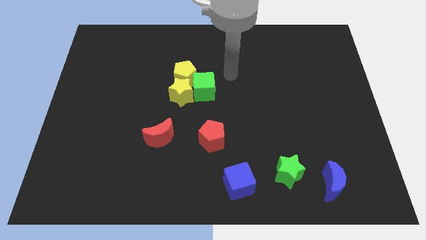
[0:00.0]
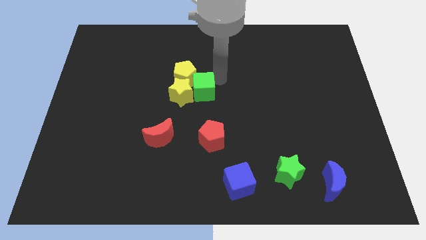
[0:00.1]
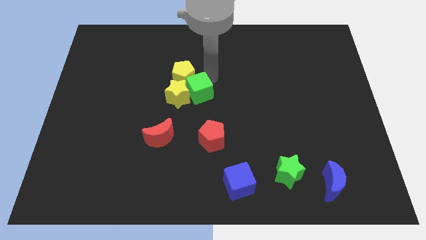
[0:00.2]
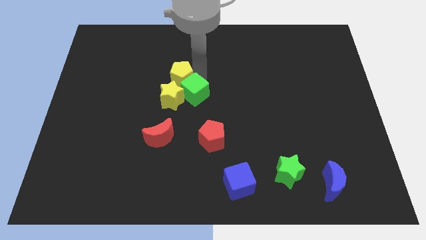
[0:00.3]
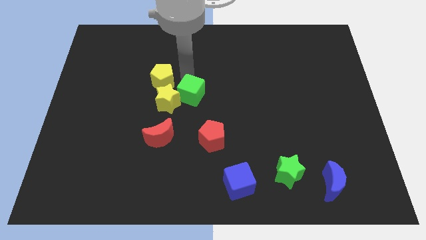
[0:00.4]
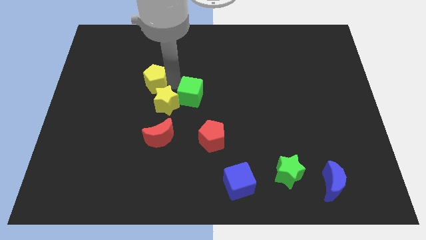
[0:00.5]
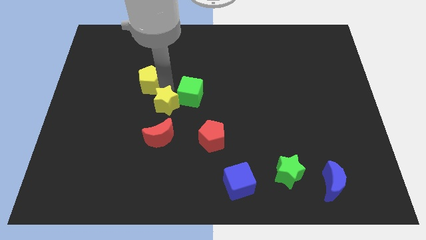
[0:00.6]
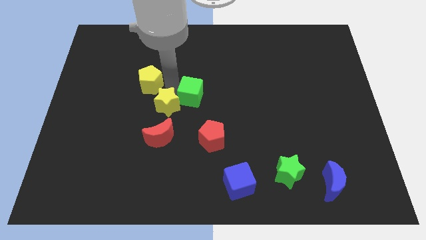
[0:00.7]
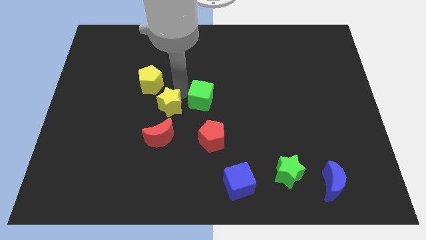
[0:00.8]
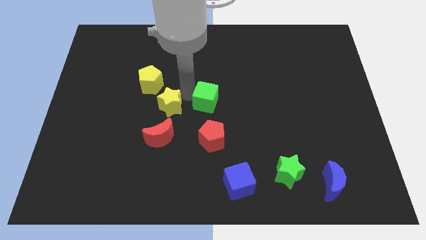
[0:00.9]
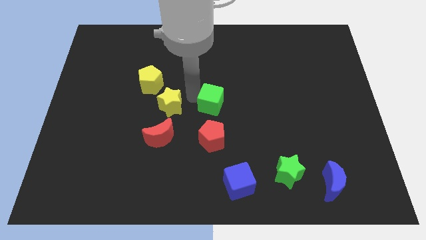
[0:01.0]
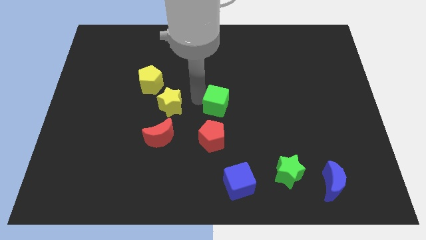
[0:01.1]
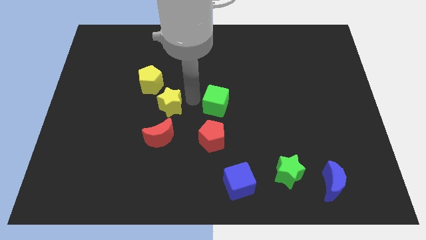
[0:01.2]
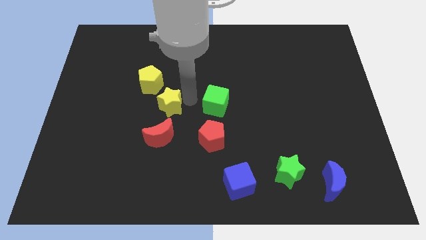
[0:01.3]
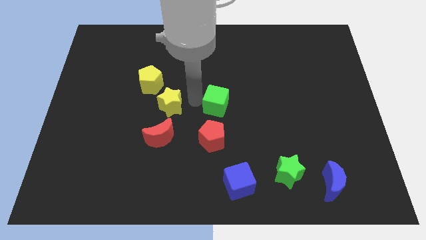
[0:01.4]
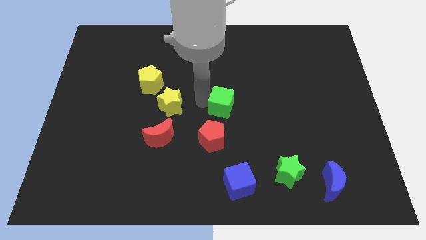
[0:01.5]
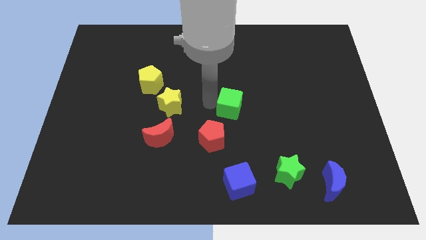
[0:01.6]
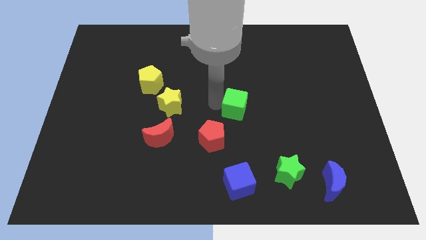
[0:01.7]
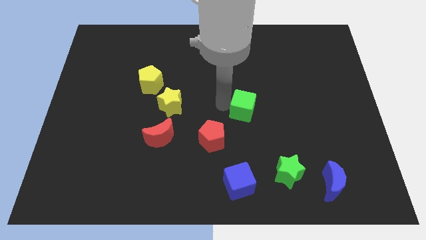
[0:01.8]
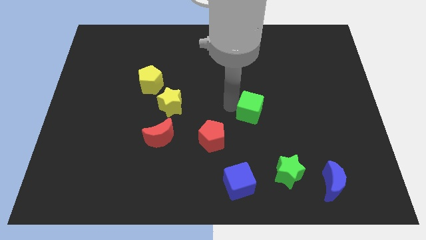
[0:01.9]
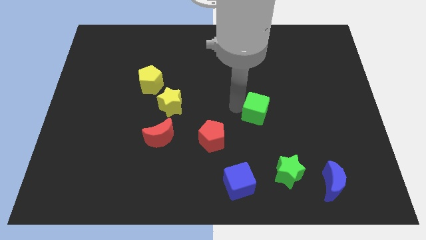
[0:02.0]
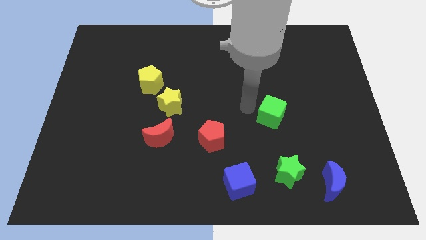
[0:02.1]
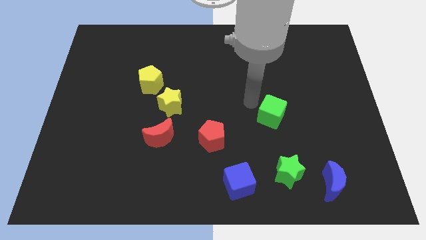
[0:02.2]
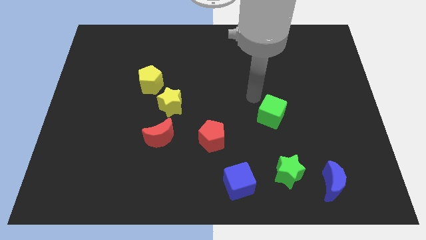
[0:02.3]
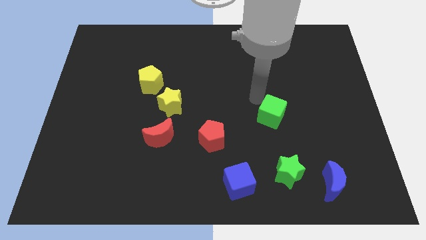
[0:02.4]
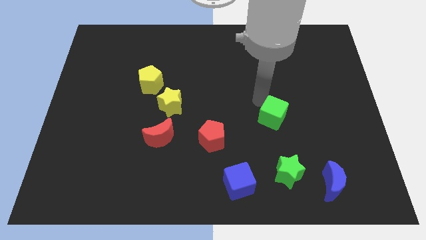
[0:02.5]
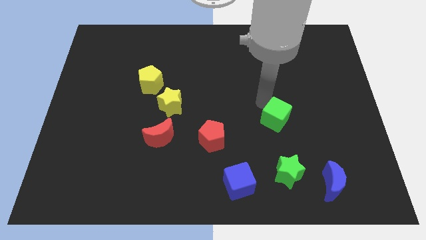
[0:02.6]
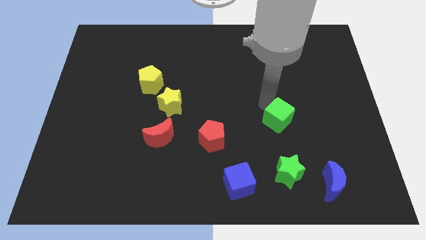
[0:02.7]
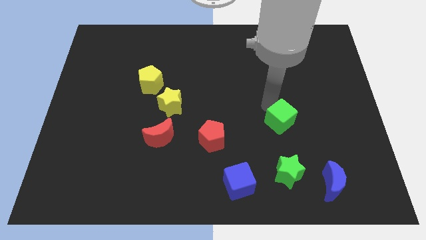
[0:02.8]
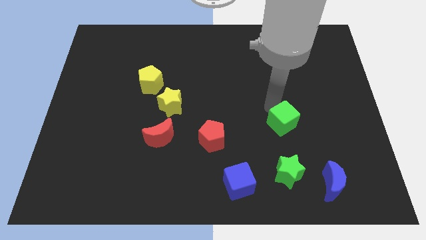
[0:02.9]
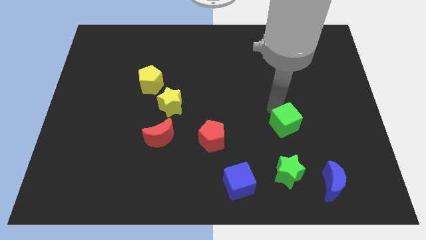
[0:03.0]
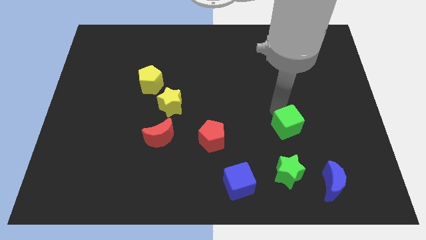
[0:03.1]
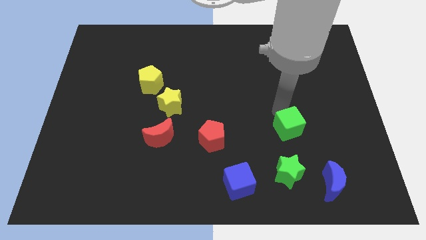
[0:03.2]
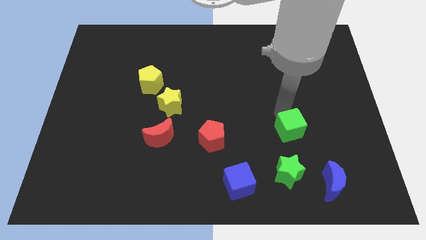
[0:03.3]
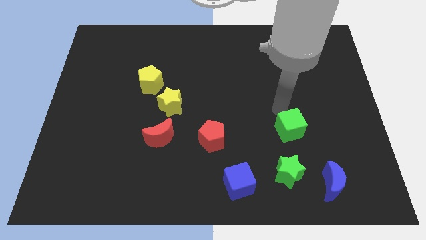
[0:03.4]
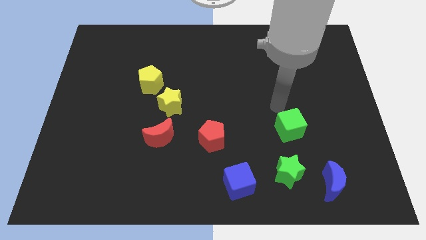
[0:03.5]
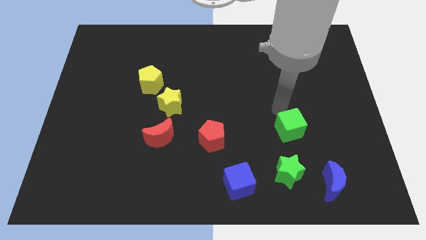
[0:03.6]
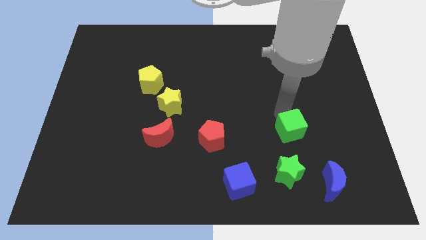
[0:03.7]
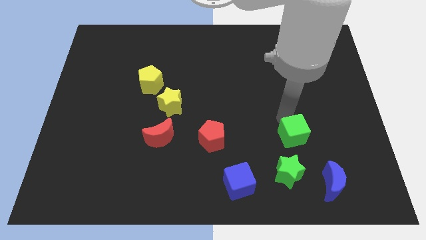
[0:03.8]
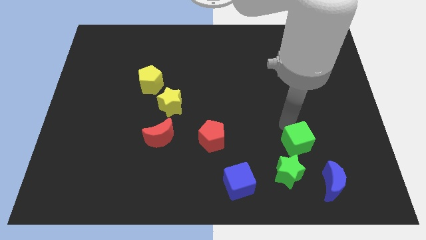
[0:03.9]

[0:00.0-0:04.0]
push the green cube to the top right side of the green star

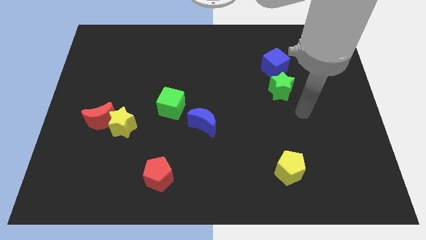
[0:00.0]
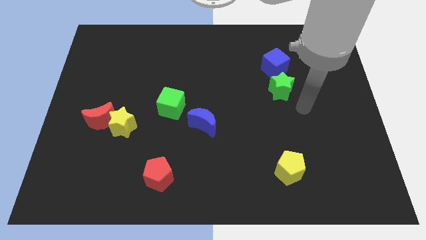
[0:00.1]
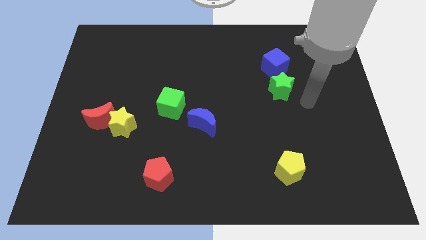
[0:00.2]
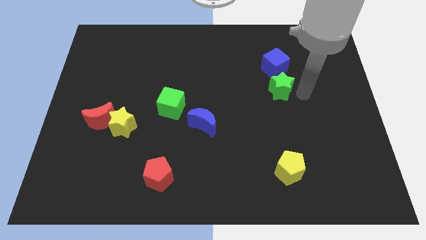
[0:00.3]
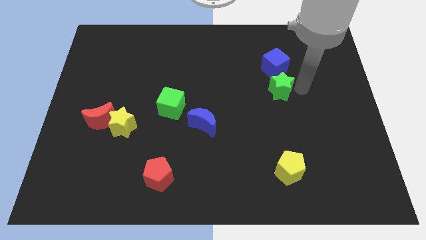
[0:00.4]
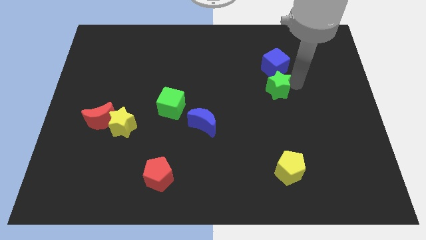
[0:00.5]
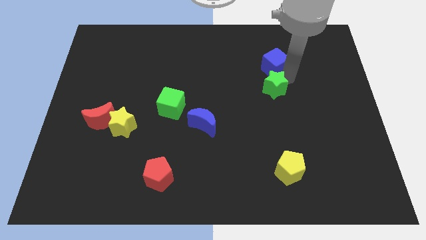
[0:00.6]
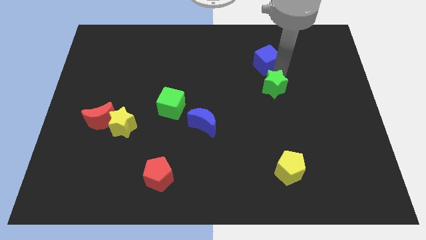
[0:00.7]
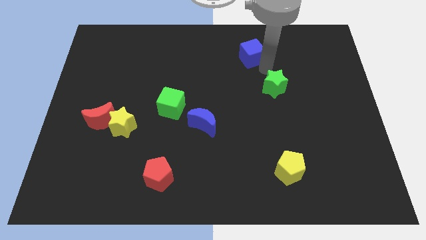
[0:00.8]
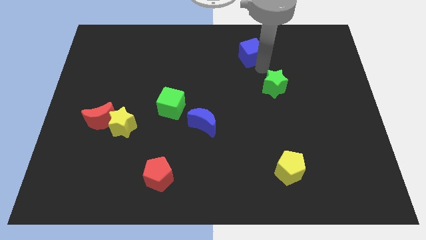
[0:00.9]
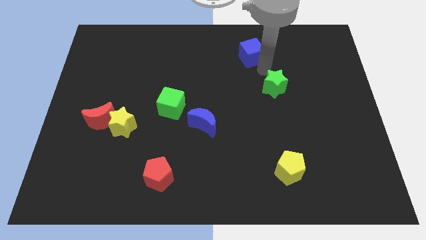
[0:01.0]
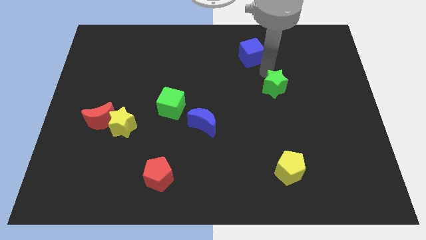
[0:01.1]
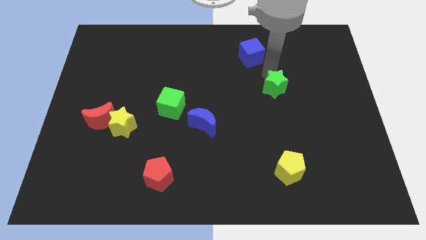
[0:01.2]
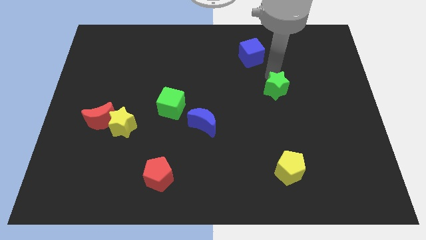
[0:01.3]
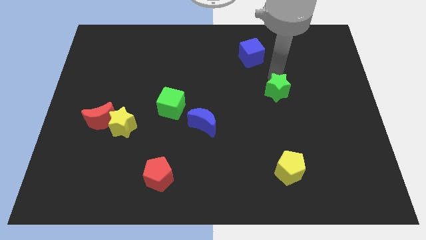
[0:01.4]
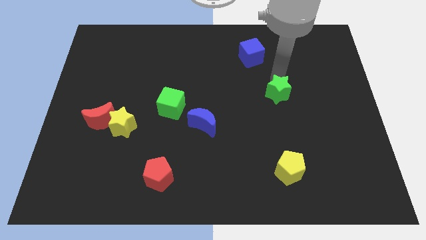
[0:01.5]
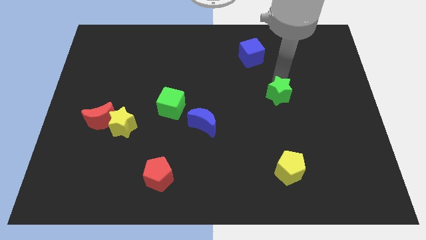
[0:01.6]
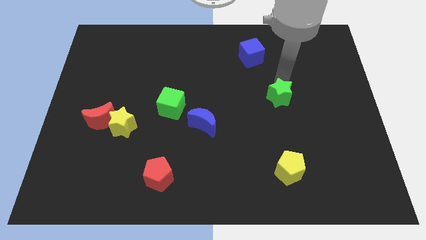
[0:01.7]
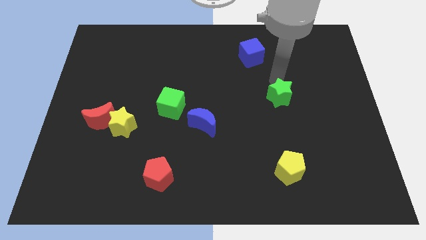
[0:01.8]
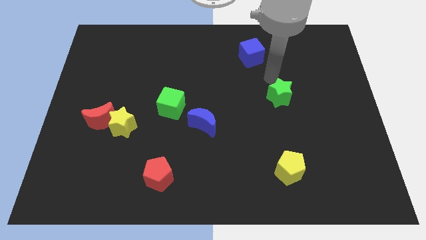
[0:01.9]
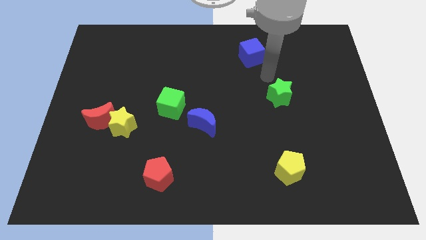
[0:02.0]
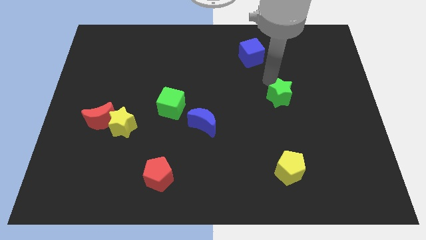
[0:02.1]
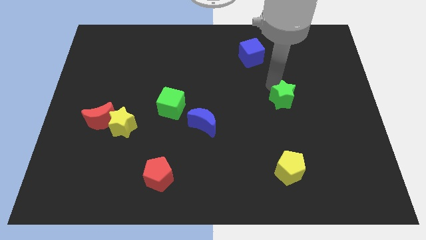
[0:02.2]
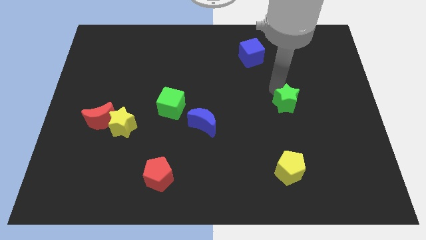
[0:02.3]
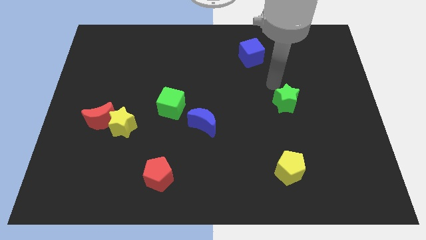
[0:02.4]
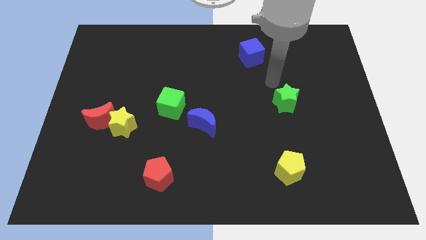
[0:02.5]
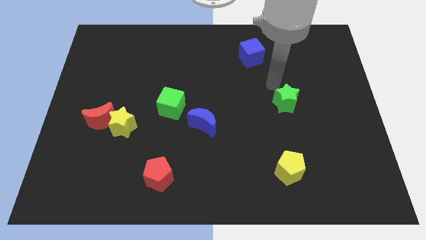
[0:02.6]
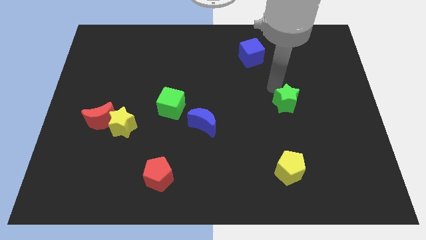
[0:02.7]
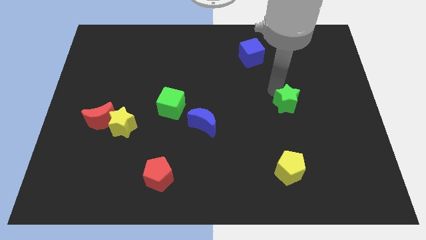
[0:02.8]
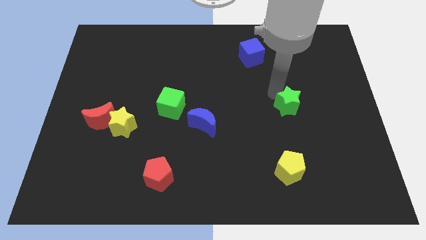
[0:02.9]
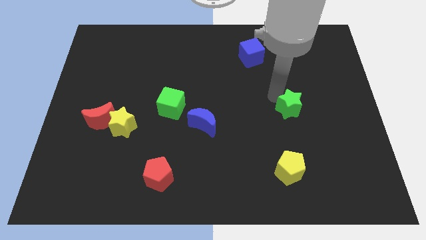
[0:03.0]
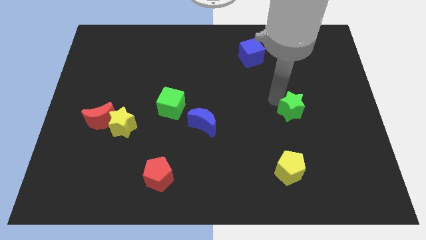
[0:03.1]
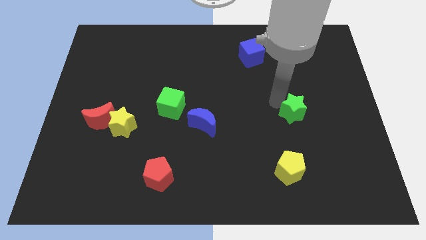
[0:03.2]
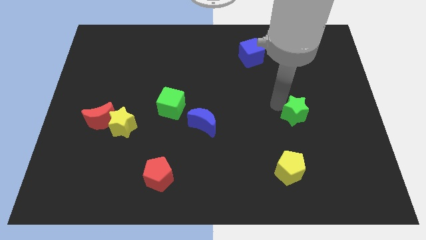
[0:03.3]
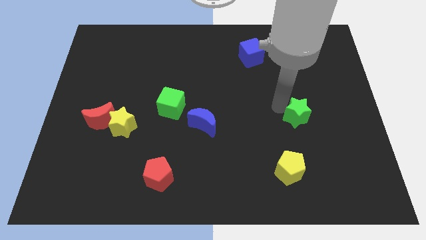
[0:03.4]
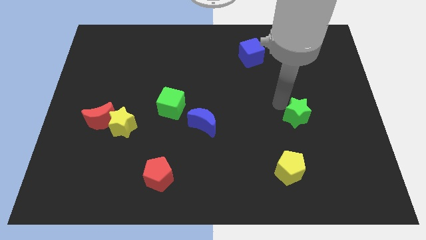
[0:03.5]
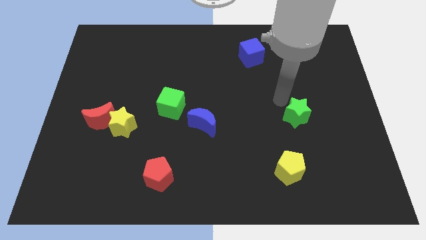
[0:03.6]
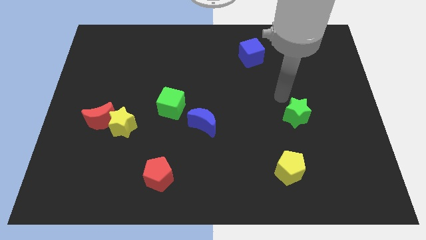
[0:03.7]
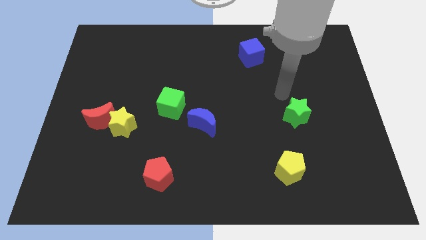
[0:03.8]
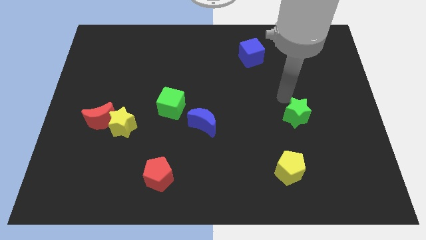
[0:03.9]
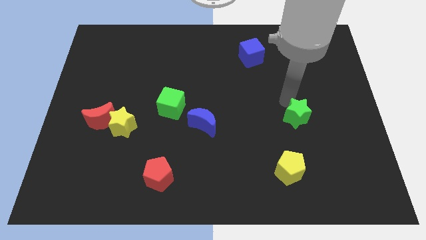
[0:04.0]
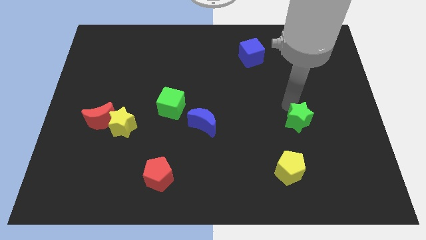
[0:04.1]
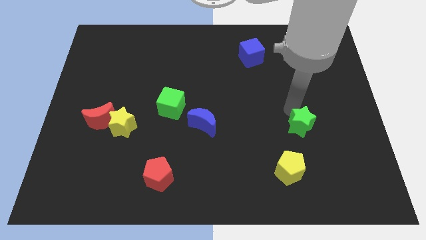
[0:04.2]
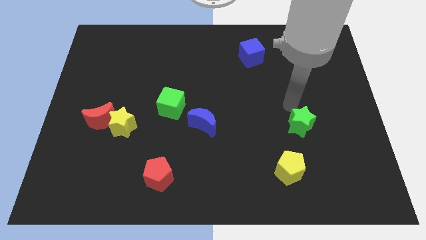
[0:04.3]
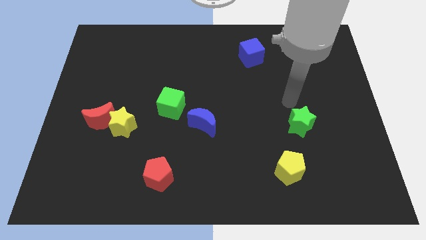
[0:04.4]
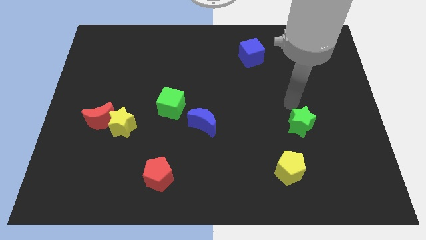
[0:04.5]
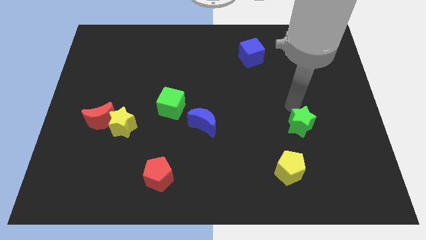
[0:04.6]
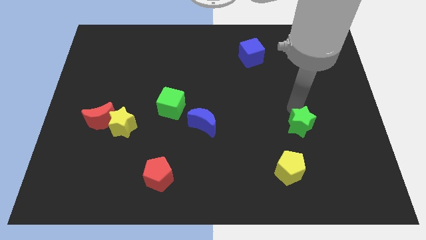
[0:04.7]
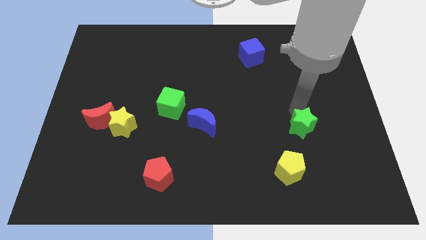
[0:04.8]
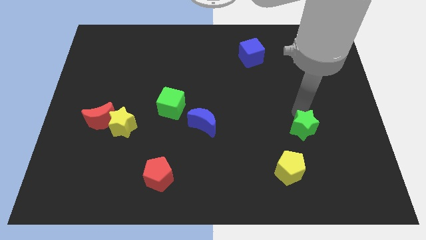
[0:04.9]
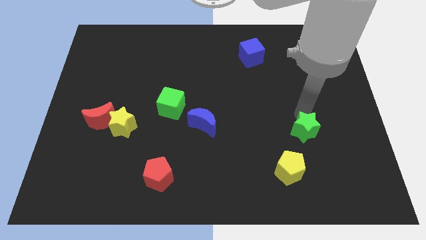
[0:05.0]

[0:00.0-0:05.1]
move the green star to the top right of the yellow pentagon
